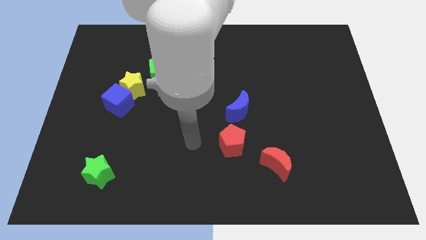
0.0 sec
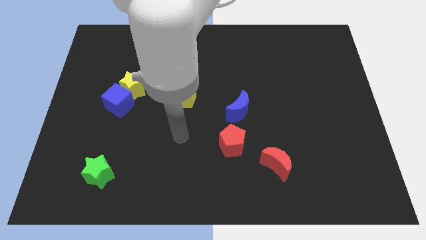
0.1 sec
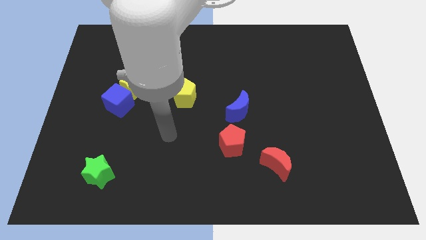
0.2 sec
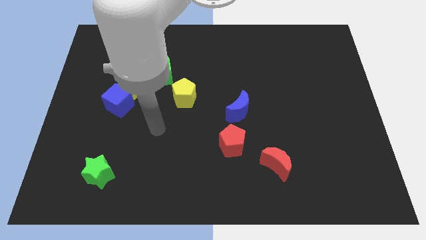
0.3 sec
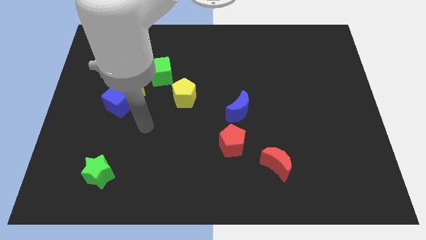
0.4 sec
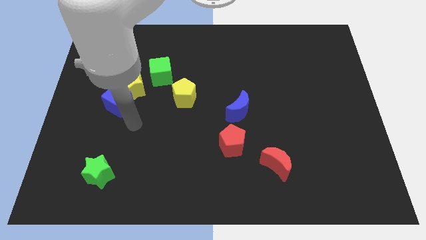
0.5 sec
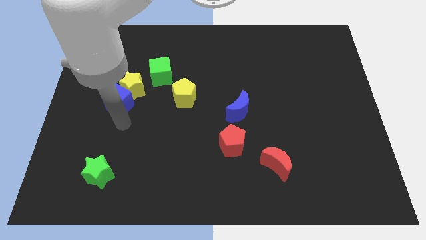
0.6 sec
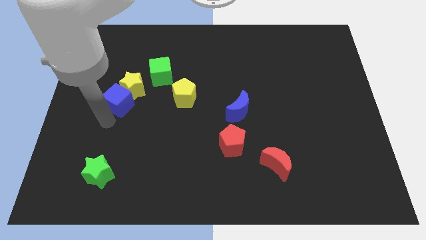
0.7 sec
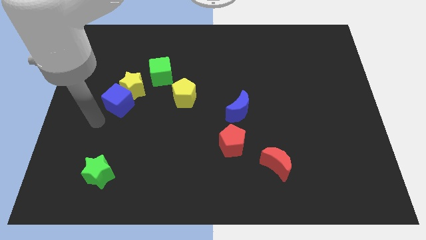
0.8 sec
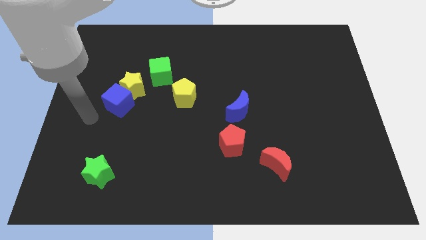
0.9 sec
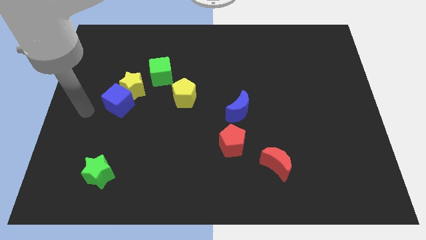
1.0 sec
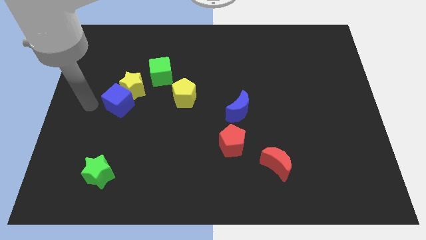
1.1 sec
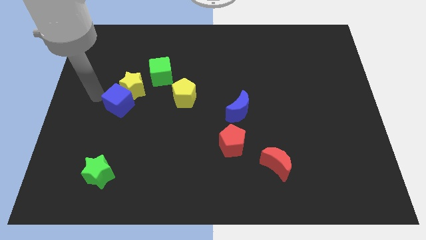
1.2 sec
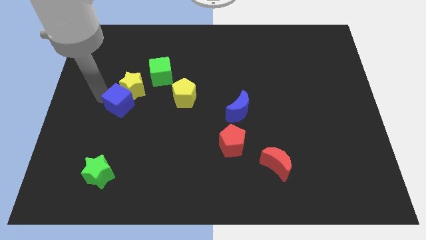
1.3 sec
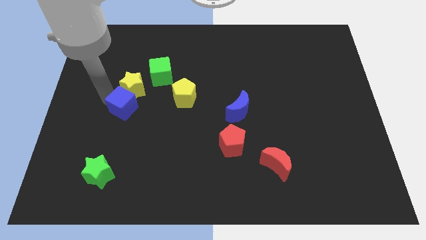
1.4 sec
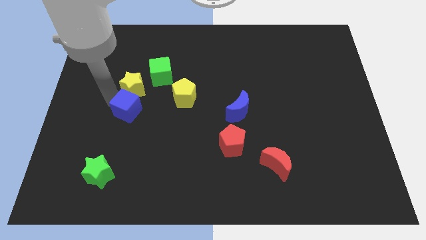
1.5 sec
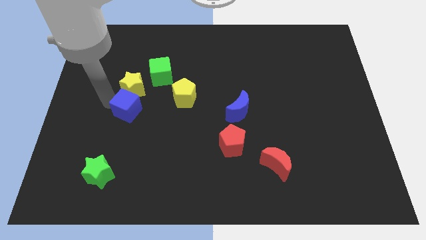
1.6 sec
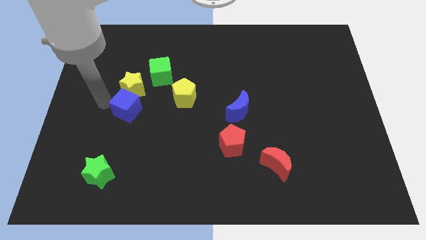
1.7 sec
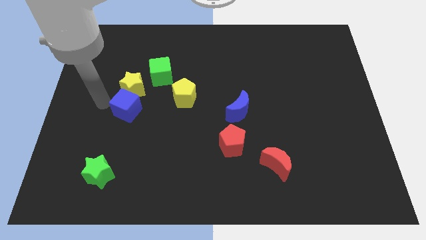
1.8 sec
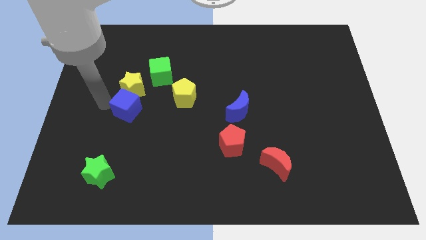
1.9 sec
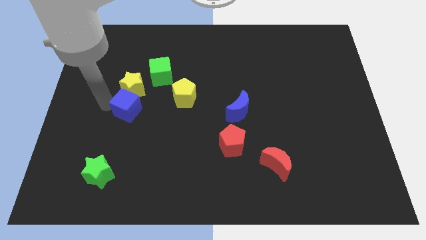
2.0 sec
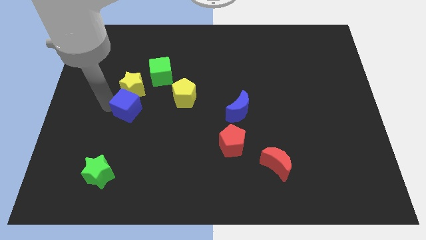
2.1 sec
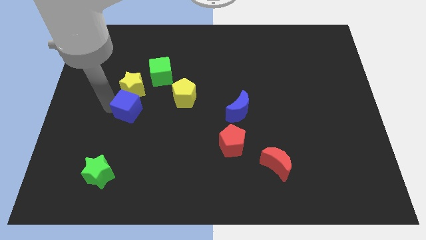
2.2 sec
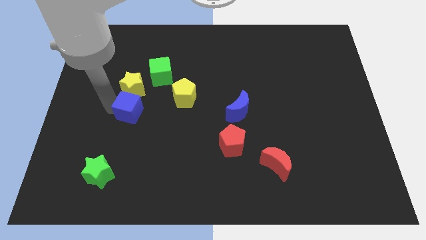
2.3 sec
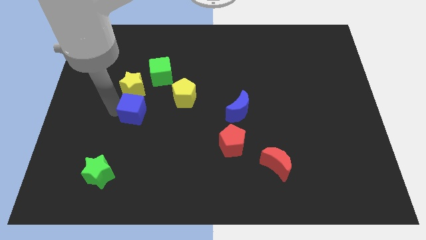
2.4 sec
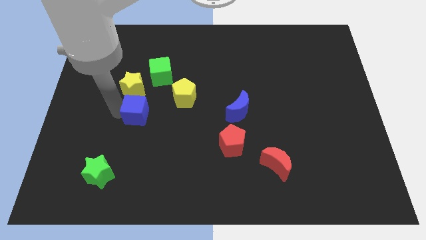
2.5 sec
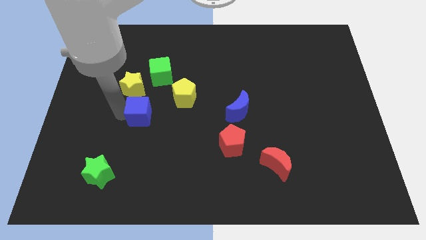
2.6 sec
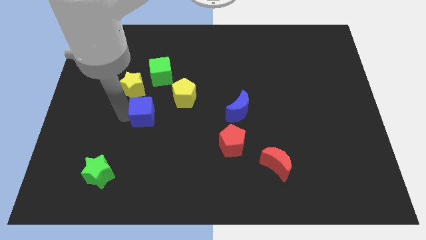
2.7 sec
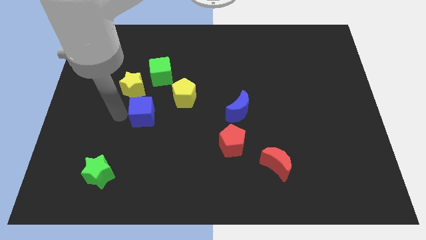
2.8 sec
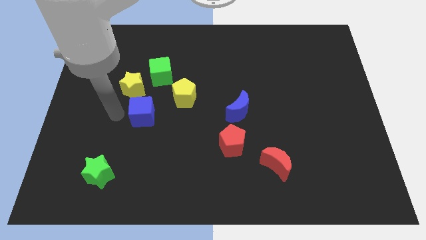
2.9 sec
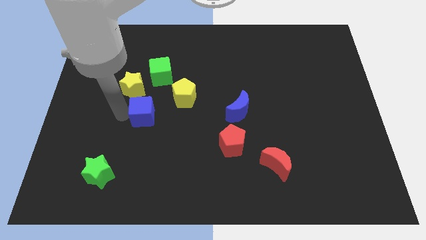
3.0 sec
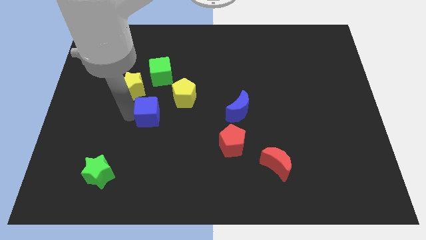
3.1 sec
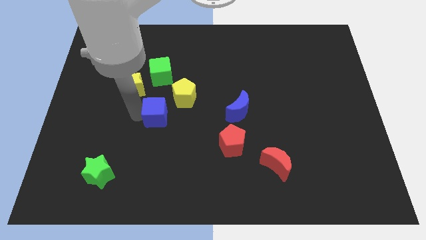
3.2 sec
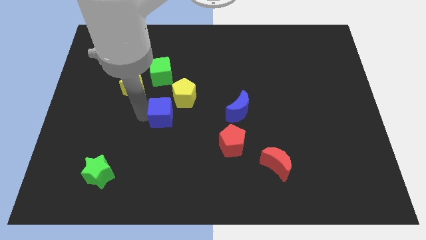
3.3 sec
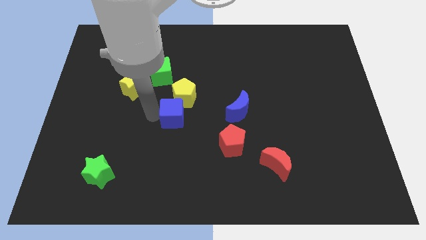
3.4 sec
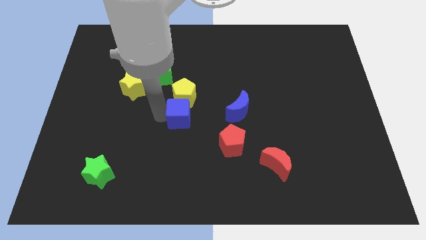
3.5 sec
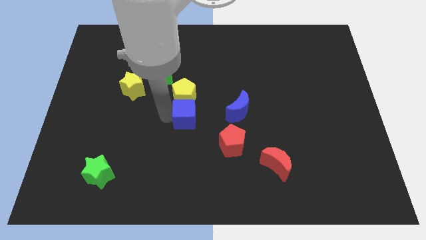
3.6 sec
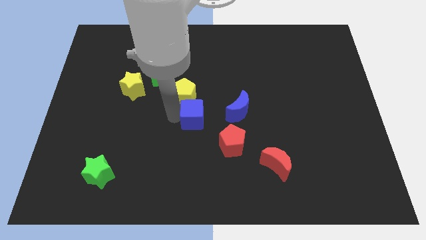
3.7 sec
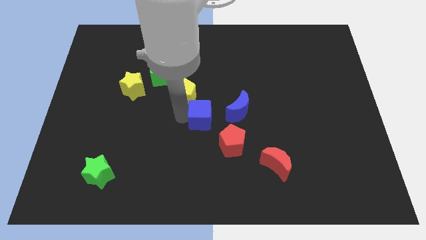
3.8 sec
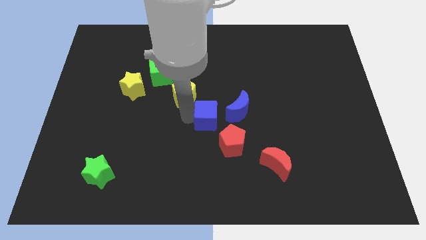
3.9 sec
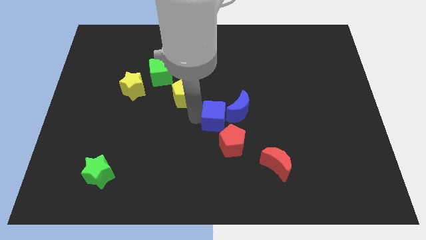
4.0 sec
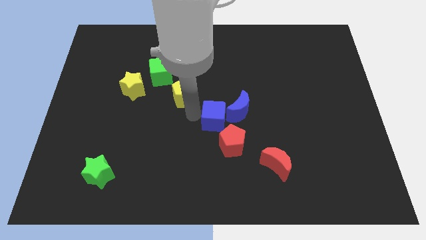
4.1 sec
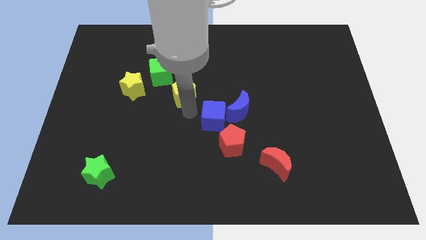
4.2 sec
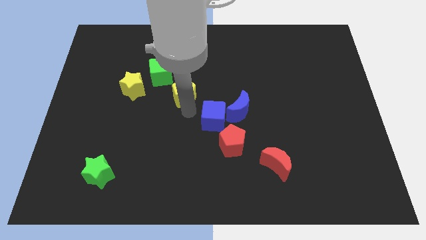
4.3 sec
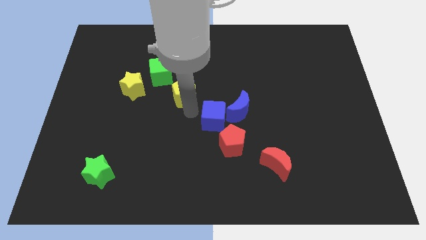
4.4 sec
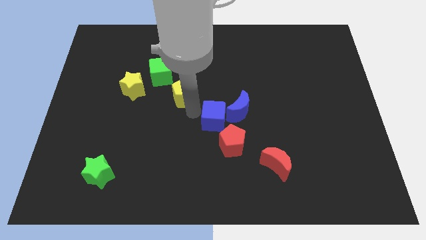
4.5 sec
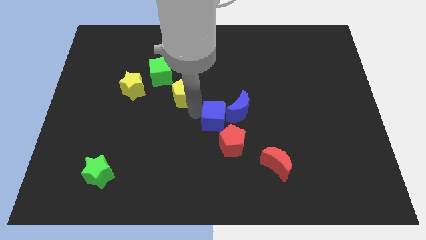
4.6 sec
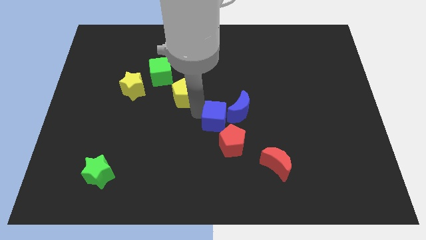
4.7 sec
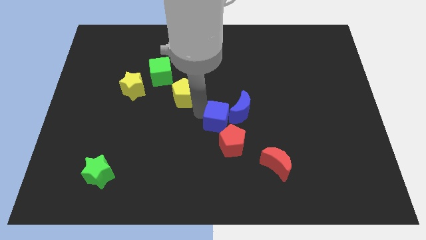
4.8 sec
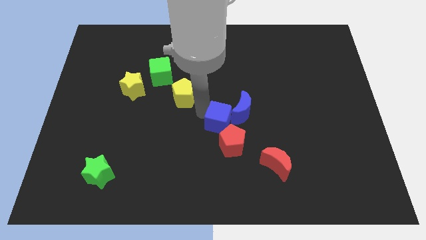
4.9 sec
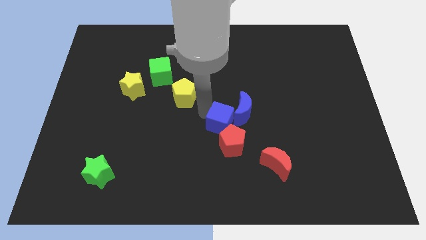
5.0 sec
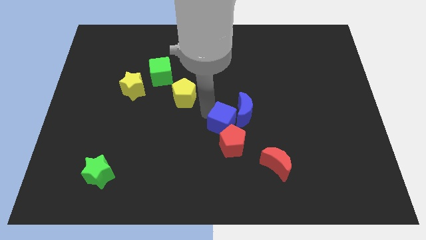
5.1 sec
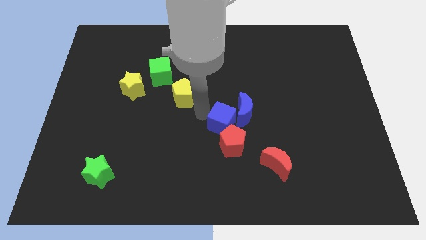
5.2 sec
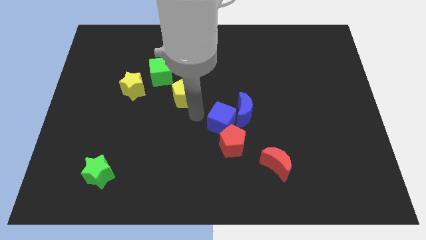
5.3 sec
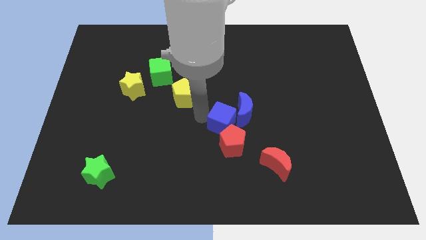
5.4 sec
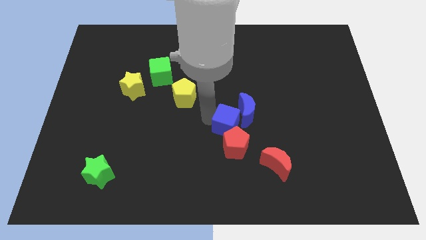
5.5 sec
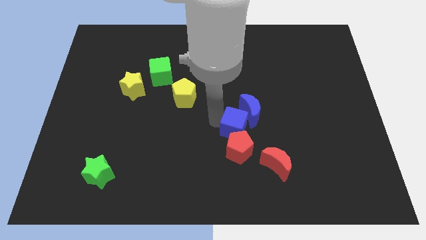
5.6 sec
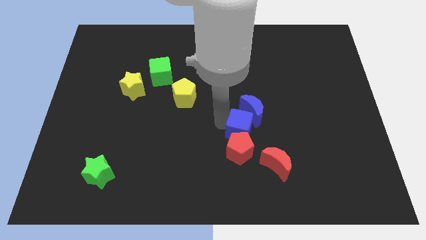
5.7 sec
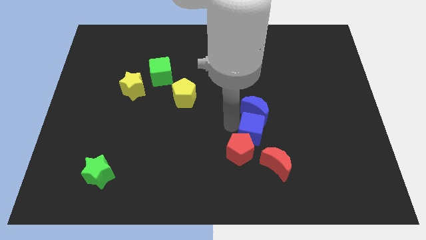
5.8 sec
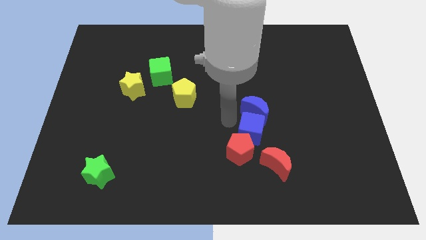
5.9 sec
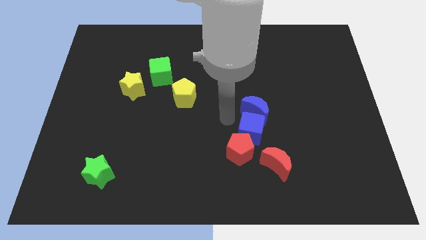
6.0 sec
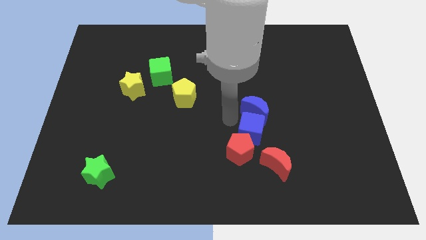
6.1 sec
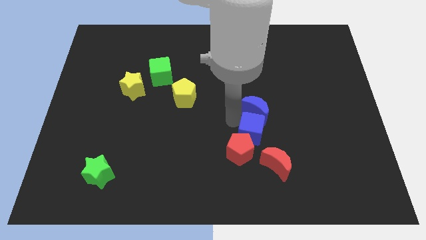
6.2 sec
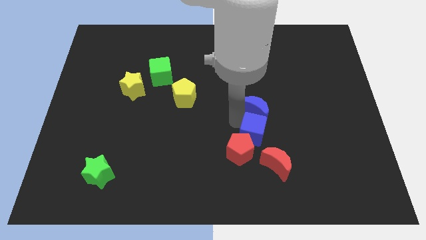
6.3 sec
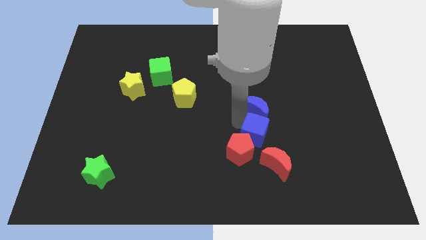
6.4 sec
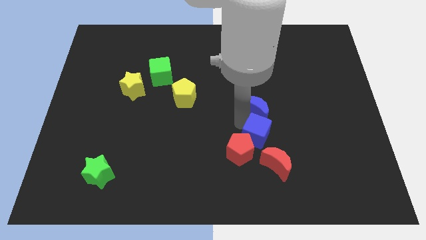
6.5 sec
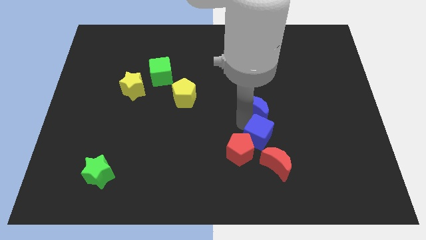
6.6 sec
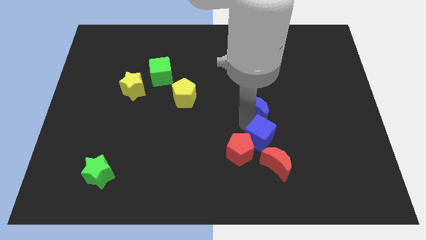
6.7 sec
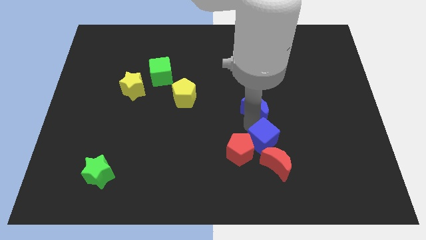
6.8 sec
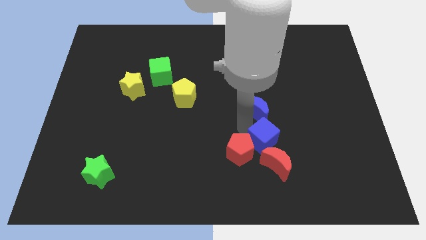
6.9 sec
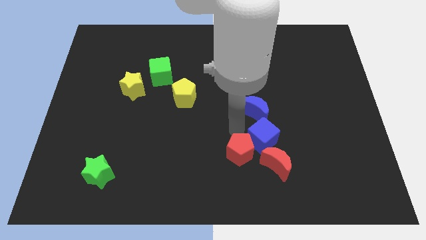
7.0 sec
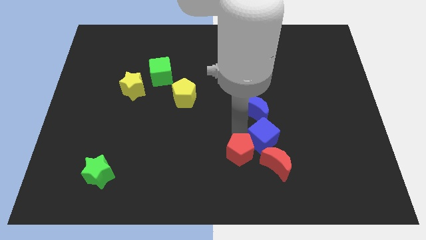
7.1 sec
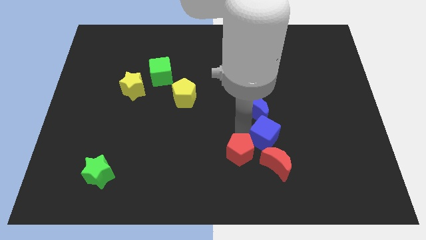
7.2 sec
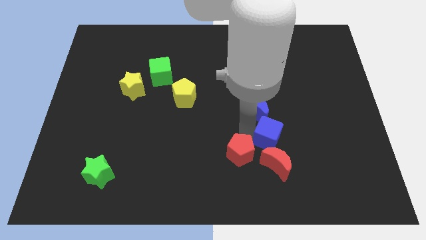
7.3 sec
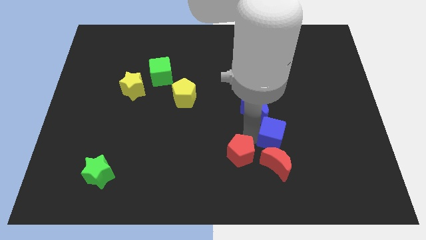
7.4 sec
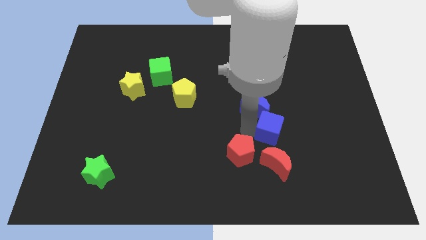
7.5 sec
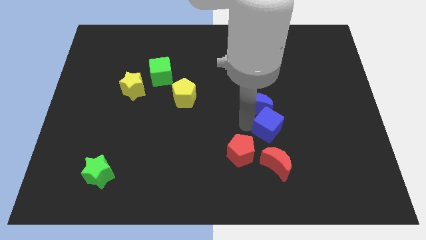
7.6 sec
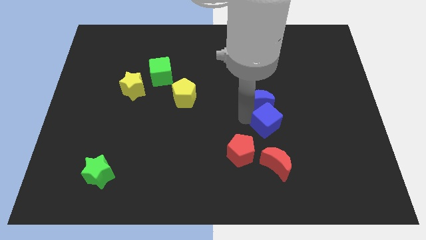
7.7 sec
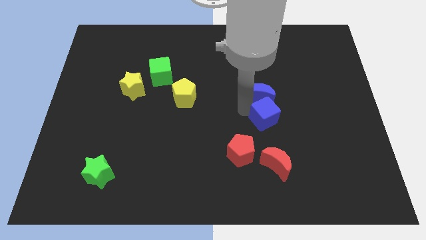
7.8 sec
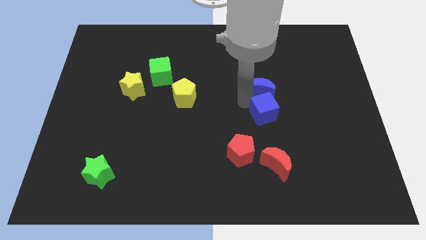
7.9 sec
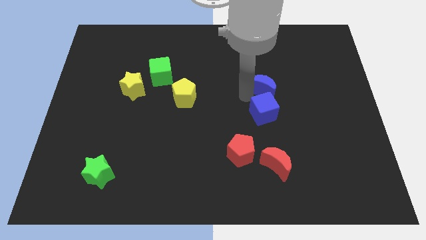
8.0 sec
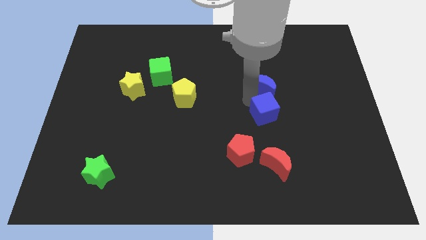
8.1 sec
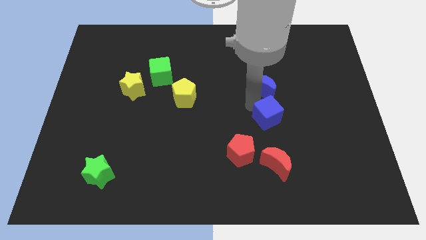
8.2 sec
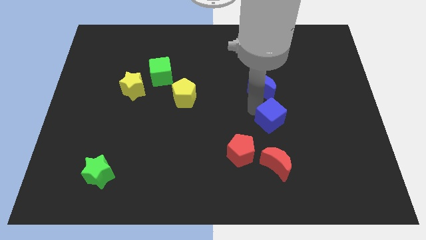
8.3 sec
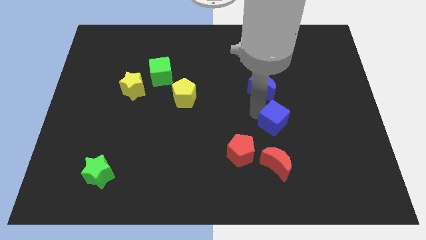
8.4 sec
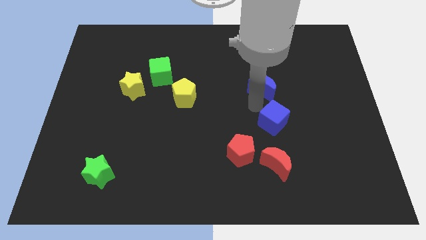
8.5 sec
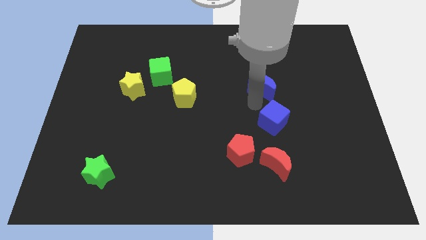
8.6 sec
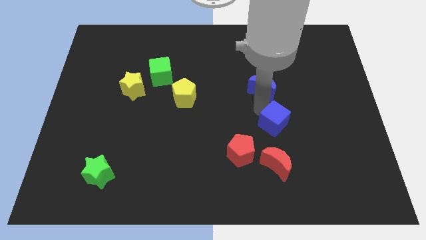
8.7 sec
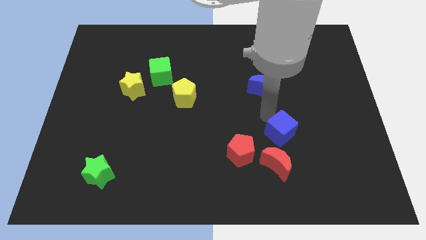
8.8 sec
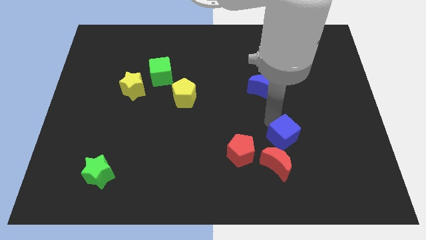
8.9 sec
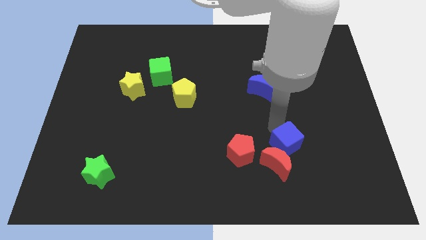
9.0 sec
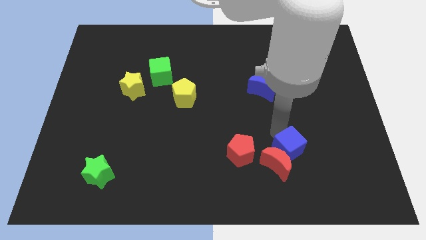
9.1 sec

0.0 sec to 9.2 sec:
put the blue cube to the right of the red moon
